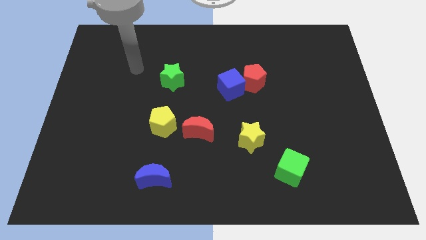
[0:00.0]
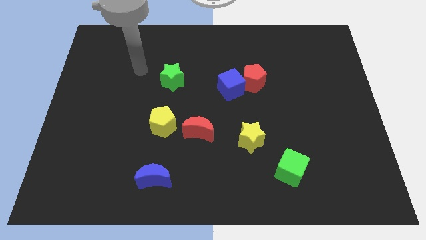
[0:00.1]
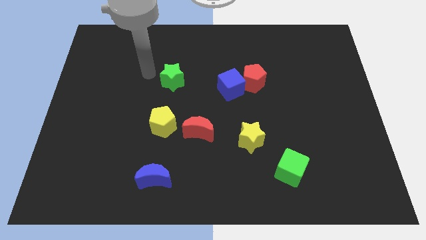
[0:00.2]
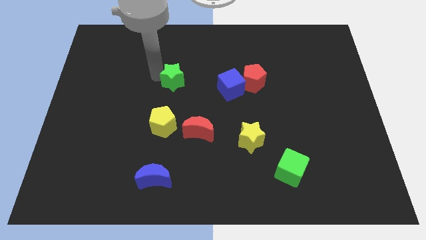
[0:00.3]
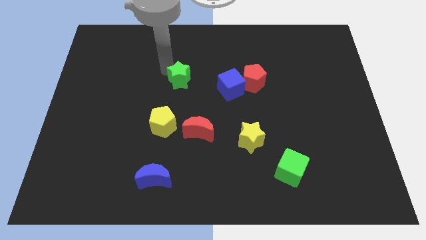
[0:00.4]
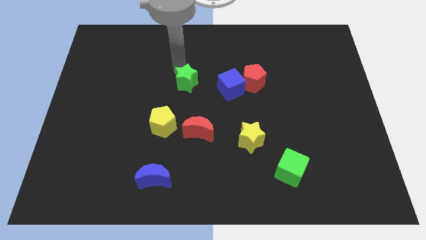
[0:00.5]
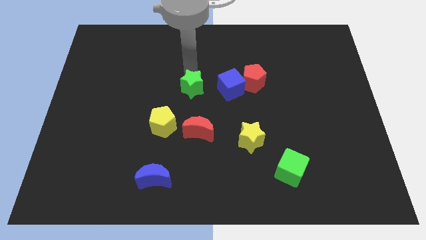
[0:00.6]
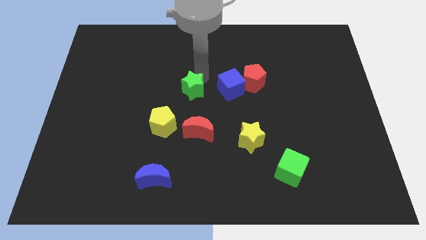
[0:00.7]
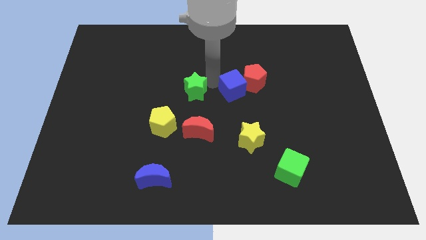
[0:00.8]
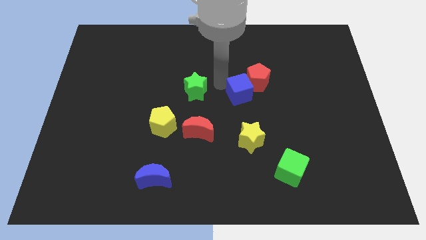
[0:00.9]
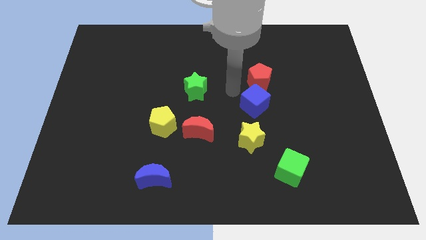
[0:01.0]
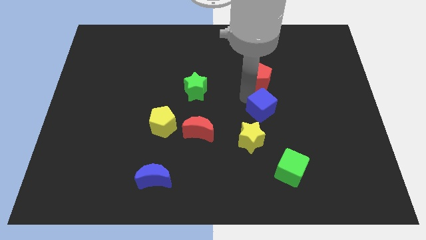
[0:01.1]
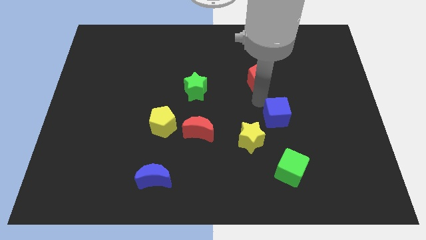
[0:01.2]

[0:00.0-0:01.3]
move the red pentagon away from the blue cube

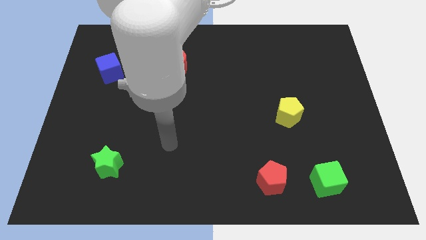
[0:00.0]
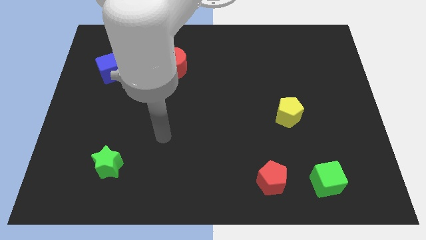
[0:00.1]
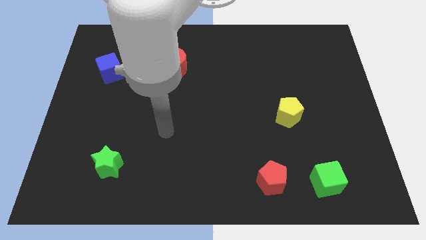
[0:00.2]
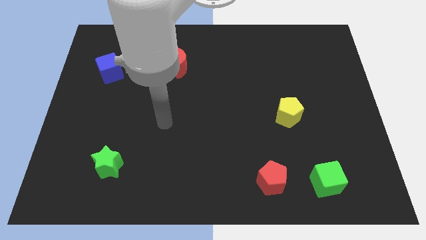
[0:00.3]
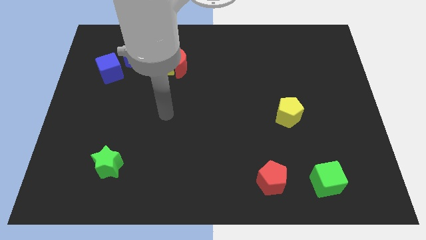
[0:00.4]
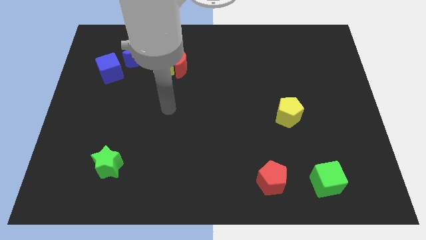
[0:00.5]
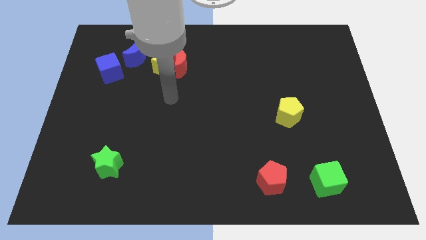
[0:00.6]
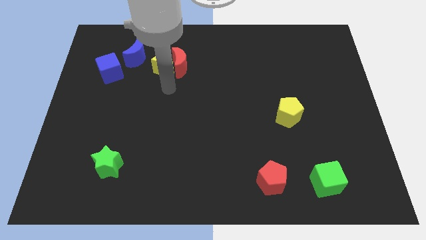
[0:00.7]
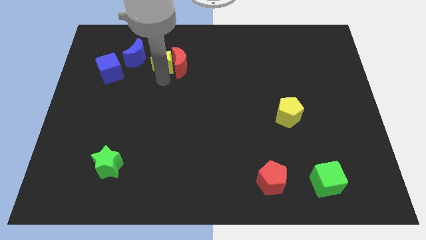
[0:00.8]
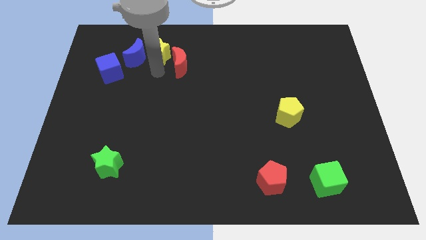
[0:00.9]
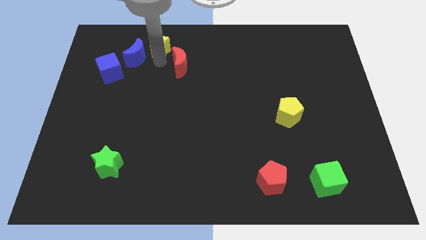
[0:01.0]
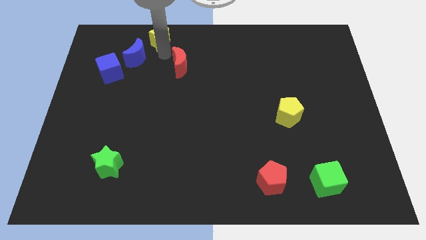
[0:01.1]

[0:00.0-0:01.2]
pull the red moon apart from the yellow star

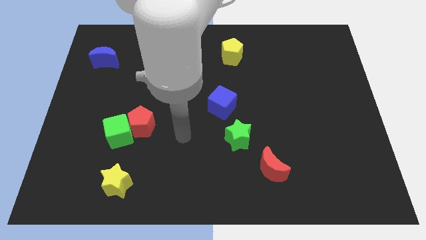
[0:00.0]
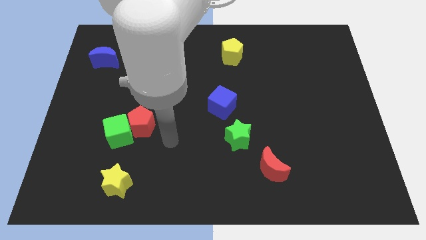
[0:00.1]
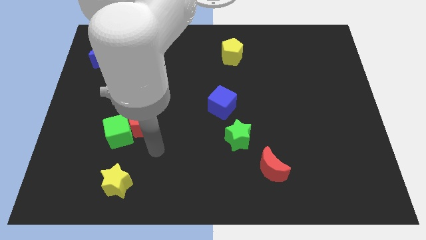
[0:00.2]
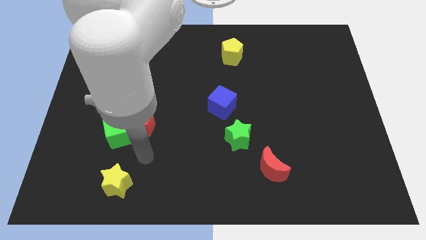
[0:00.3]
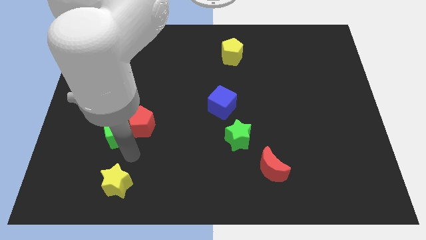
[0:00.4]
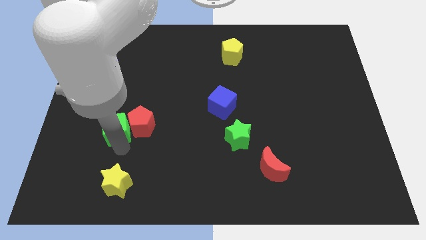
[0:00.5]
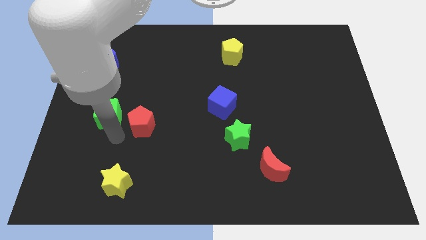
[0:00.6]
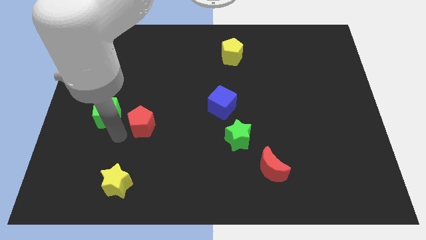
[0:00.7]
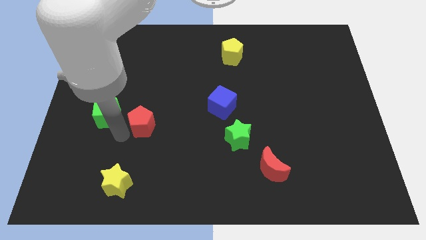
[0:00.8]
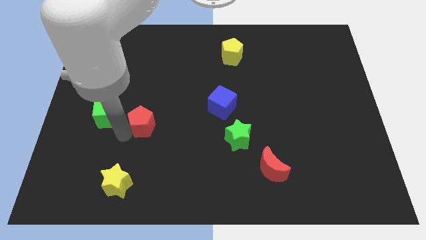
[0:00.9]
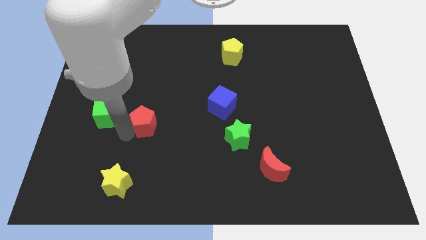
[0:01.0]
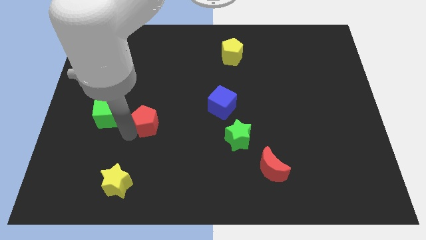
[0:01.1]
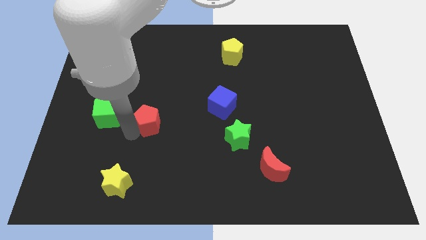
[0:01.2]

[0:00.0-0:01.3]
separate the red pentagon from the green cube

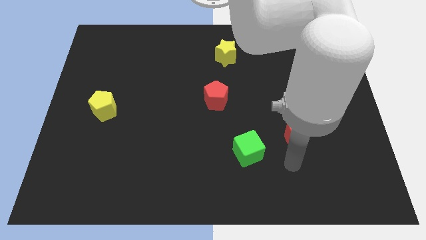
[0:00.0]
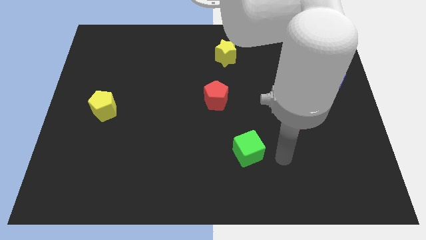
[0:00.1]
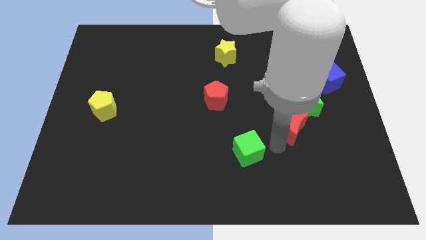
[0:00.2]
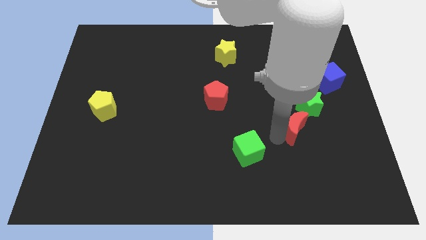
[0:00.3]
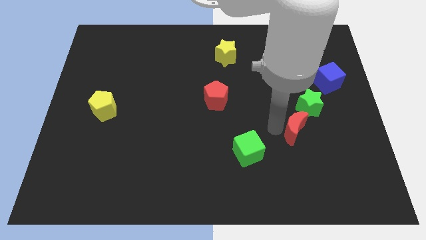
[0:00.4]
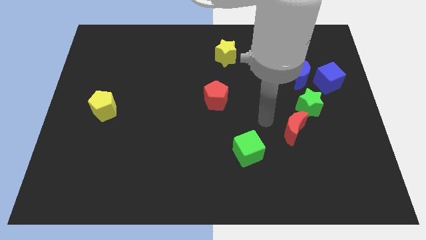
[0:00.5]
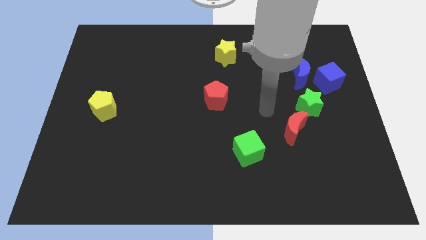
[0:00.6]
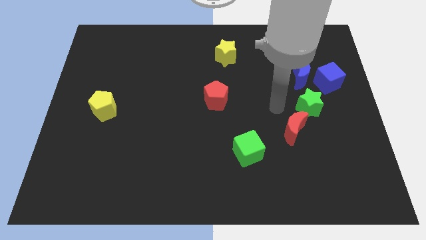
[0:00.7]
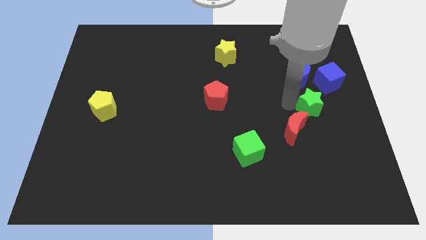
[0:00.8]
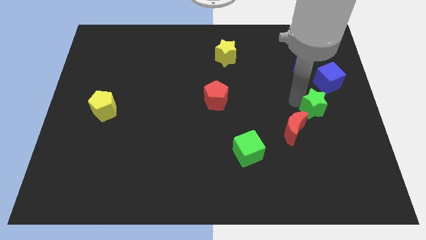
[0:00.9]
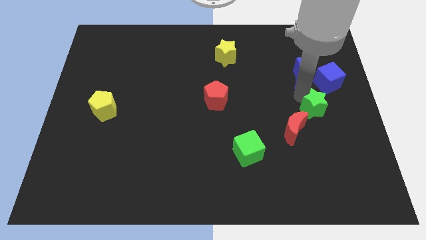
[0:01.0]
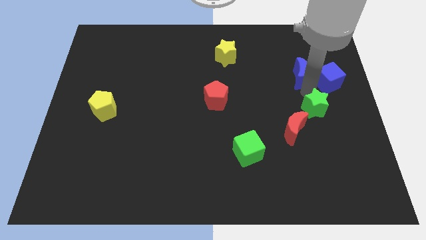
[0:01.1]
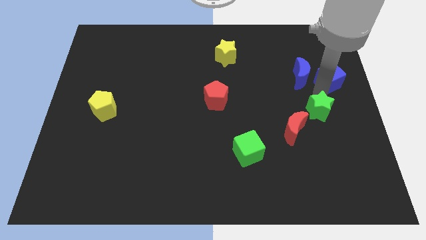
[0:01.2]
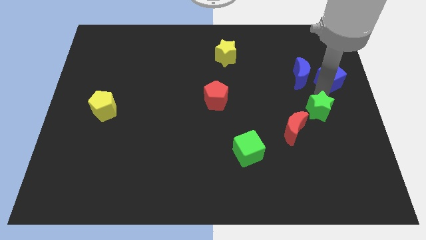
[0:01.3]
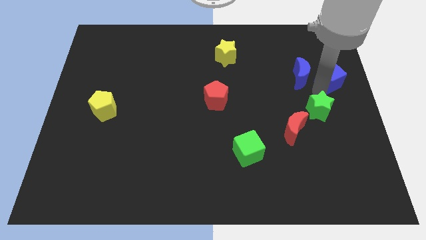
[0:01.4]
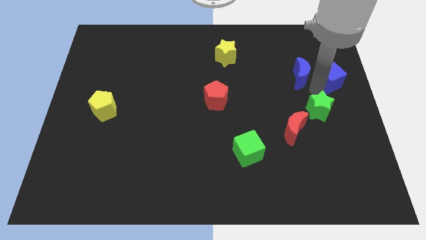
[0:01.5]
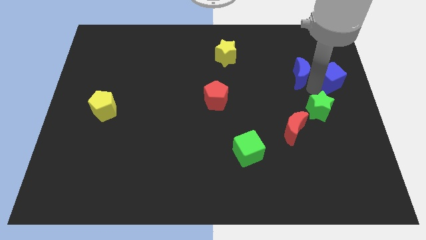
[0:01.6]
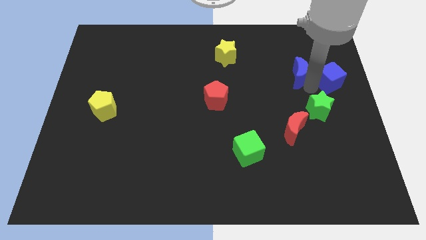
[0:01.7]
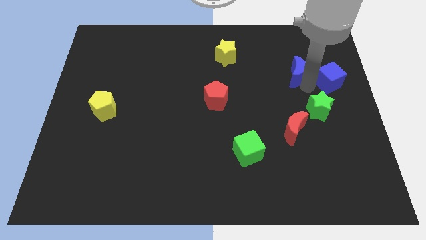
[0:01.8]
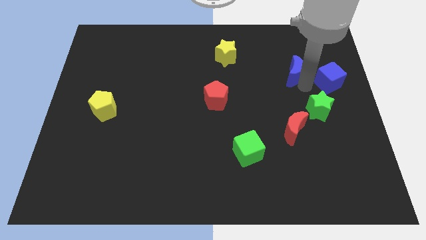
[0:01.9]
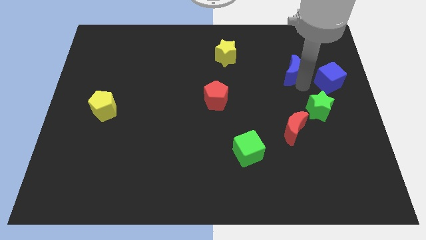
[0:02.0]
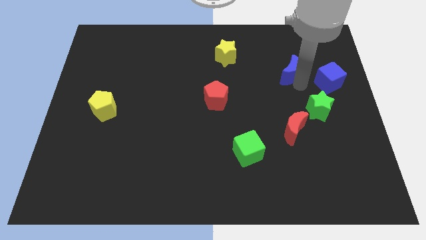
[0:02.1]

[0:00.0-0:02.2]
pull the blue moon apart from the blue cube and green star

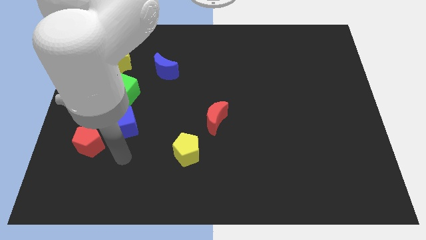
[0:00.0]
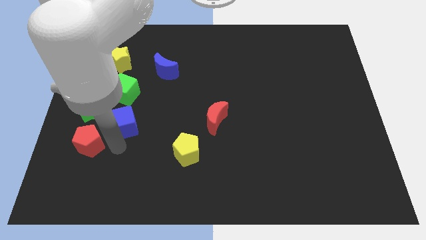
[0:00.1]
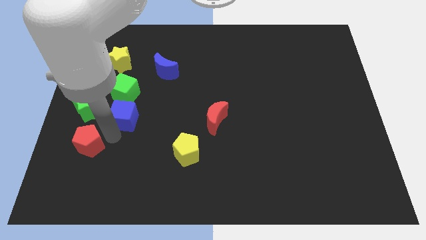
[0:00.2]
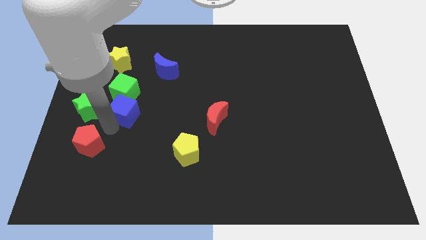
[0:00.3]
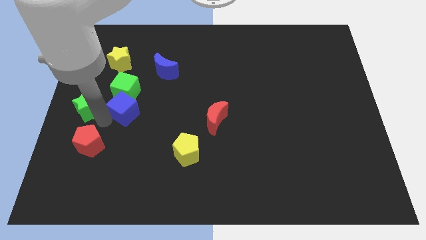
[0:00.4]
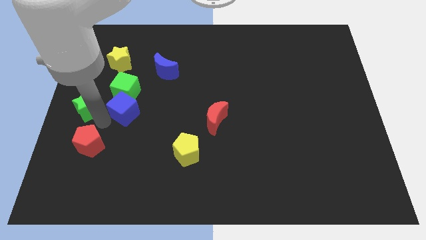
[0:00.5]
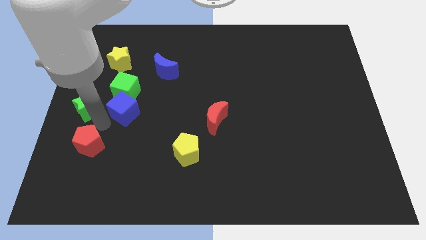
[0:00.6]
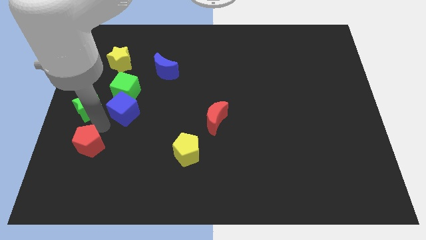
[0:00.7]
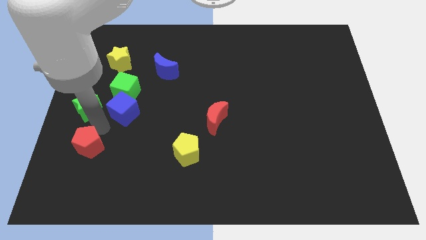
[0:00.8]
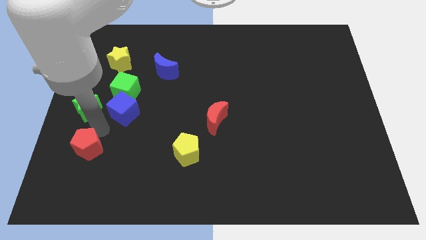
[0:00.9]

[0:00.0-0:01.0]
pull the red pentagon apart from the blue cube and green star

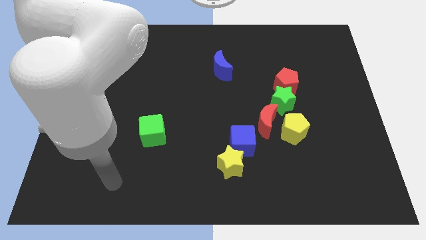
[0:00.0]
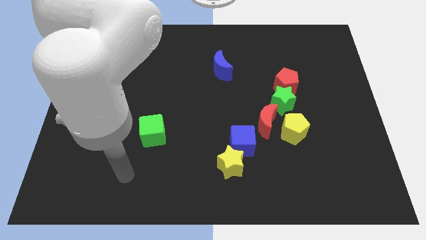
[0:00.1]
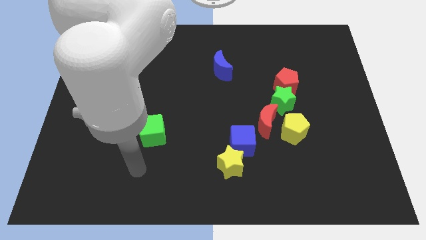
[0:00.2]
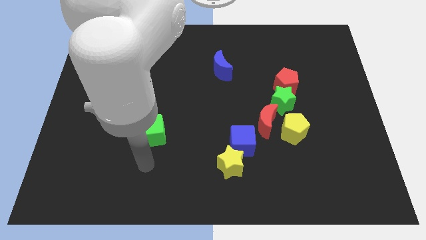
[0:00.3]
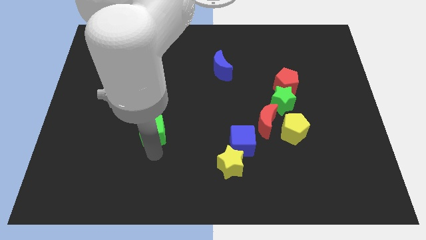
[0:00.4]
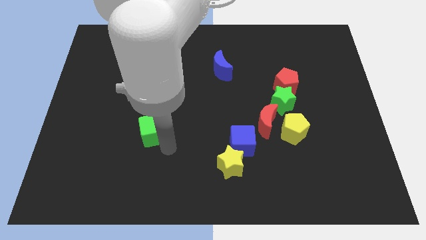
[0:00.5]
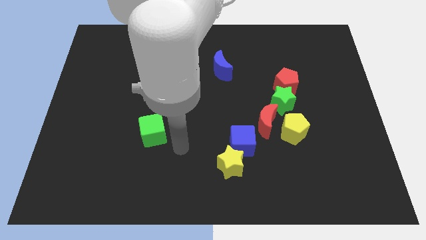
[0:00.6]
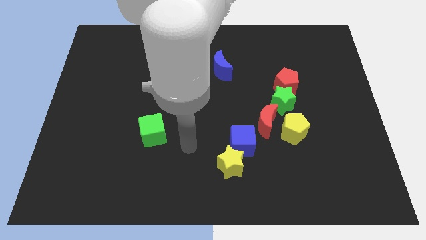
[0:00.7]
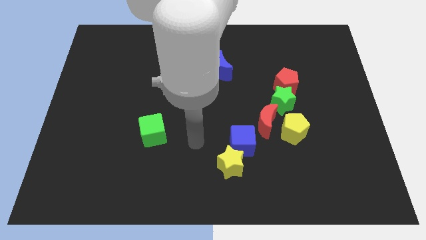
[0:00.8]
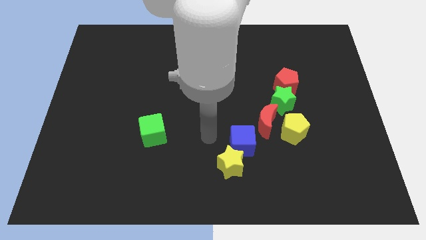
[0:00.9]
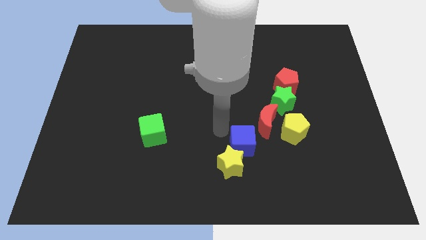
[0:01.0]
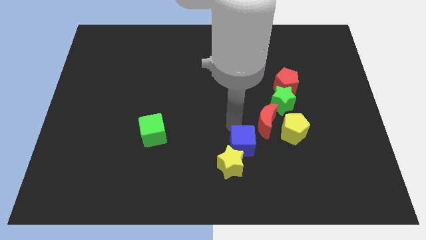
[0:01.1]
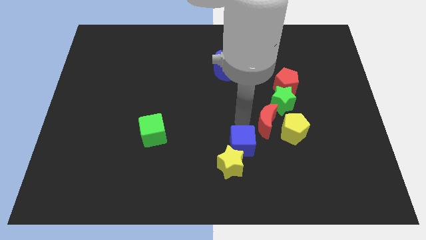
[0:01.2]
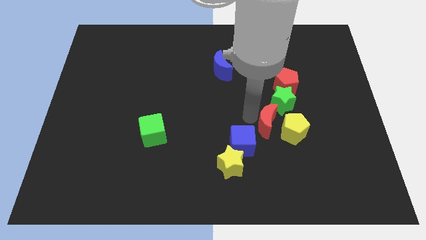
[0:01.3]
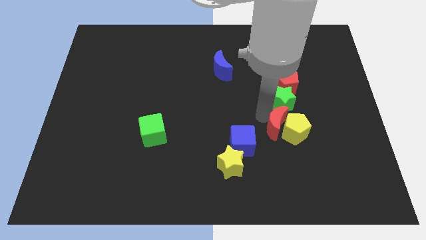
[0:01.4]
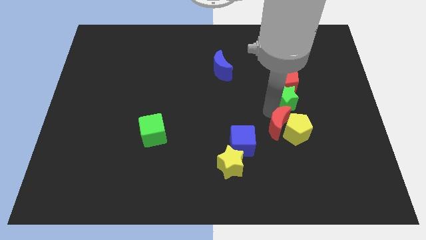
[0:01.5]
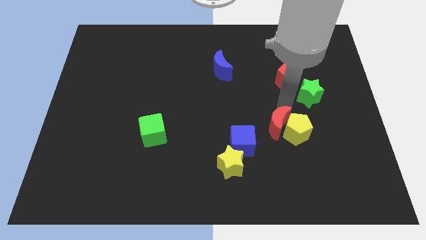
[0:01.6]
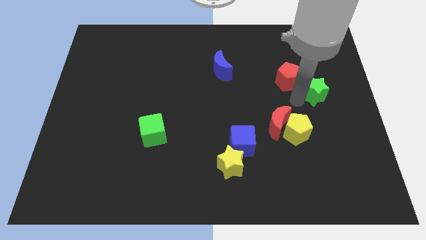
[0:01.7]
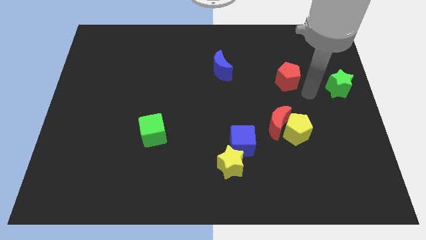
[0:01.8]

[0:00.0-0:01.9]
move the red pentagon away from the green star

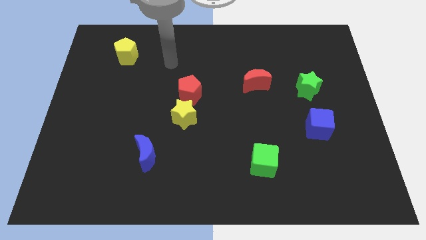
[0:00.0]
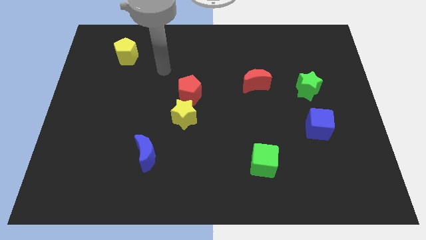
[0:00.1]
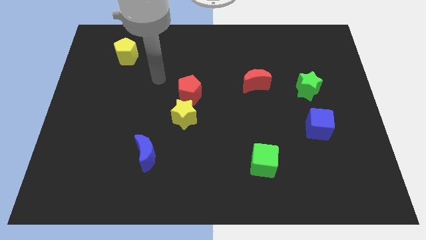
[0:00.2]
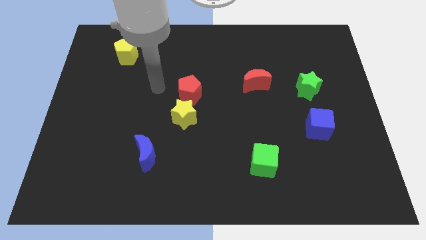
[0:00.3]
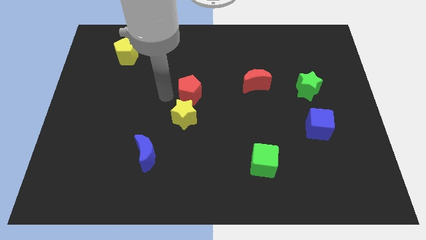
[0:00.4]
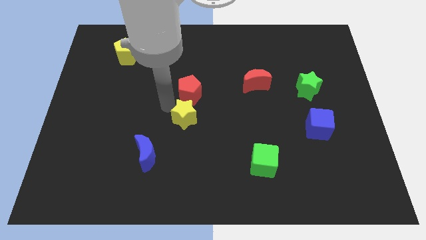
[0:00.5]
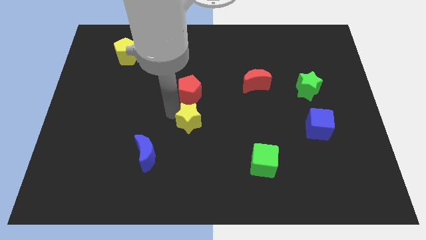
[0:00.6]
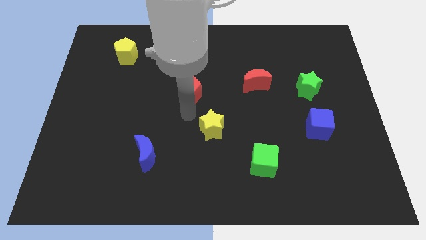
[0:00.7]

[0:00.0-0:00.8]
separate the red pentagon from the yellow star
